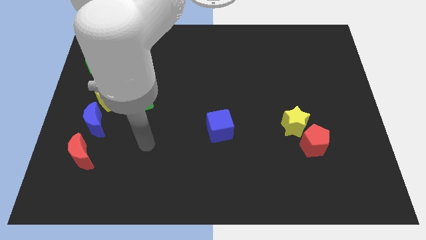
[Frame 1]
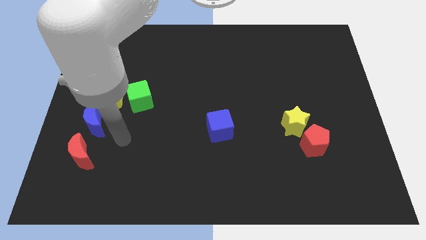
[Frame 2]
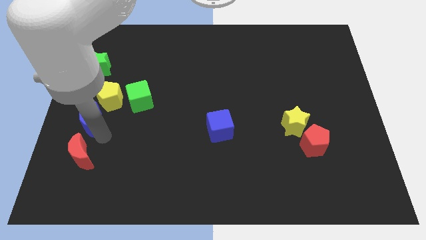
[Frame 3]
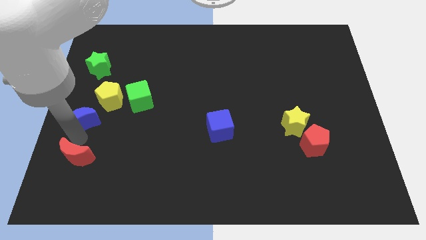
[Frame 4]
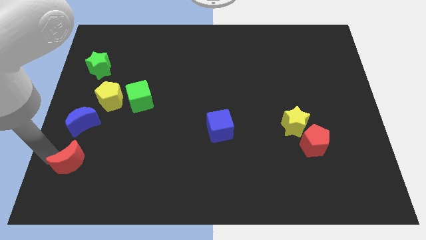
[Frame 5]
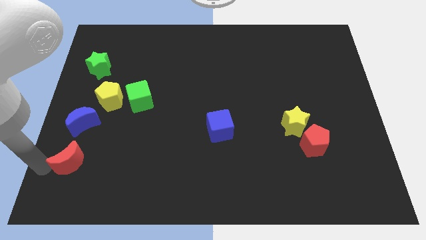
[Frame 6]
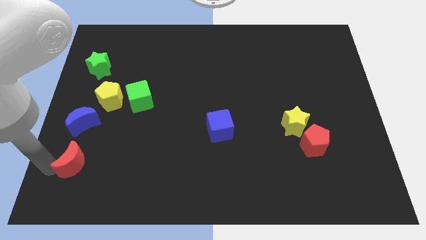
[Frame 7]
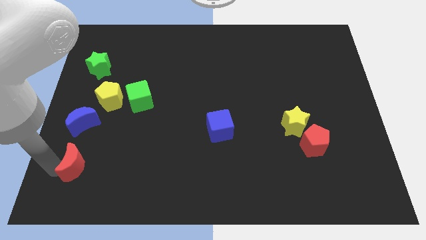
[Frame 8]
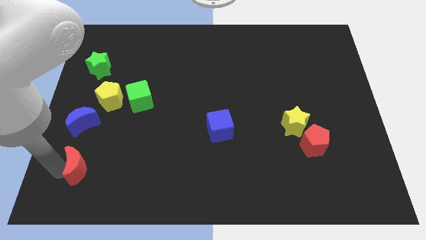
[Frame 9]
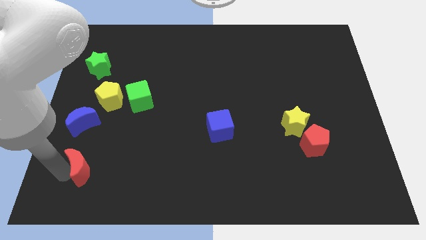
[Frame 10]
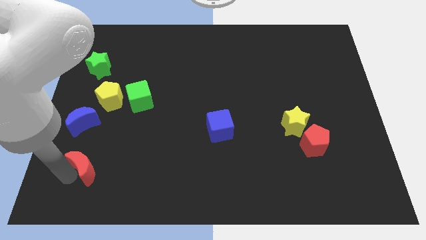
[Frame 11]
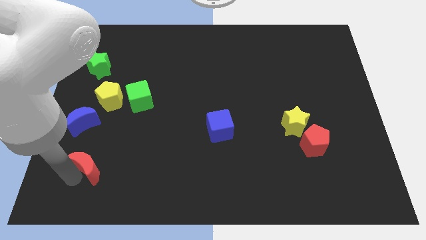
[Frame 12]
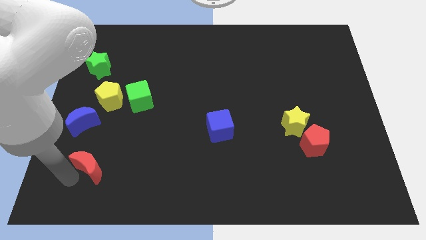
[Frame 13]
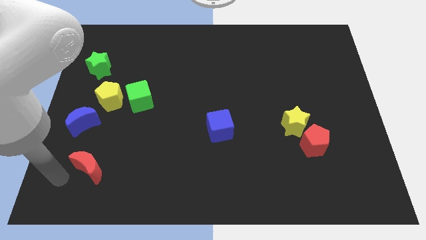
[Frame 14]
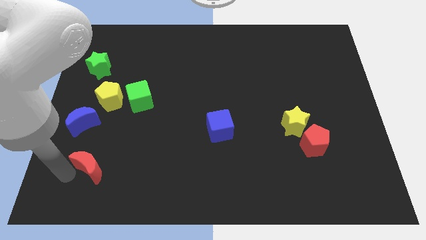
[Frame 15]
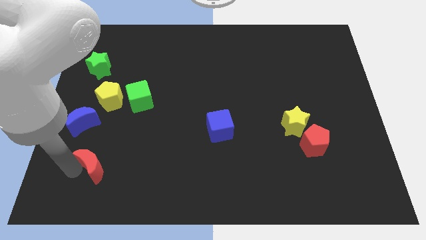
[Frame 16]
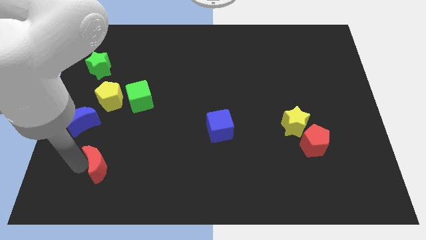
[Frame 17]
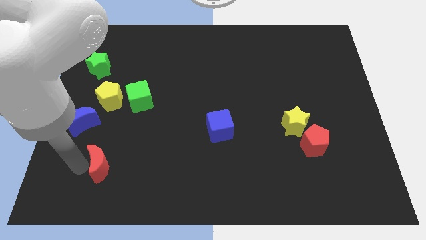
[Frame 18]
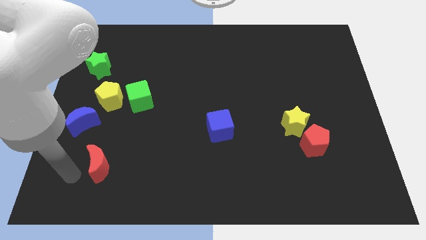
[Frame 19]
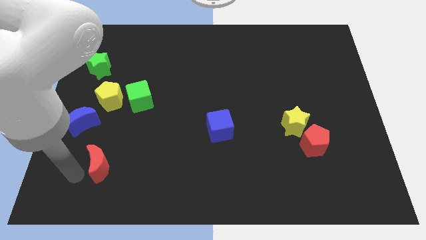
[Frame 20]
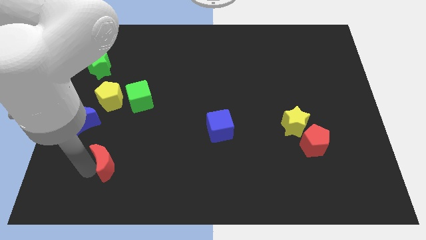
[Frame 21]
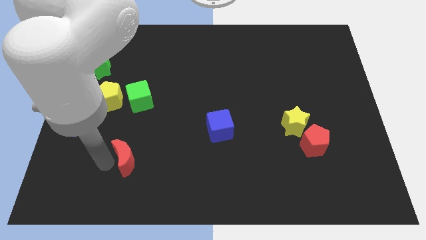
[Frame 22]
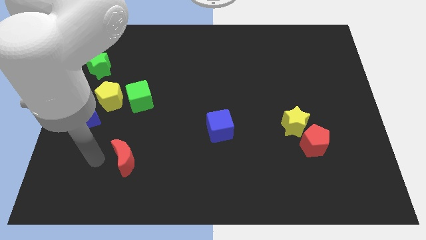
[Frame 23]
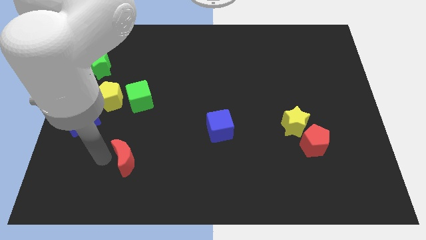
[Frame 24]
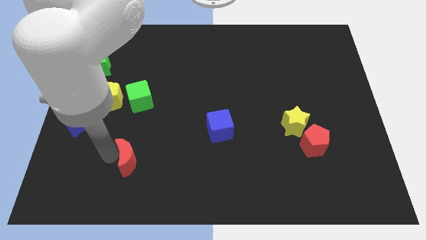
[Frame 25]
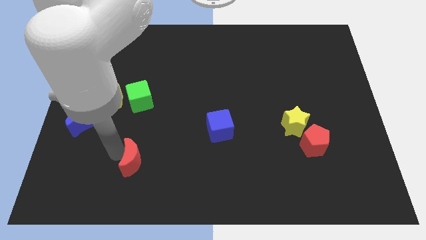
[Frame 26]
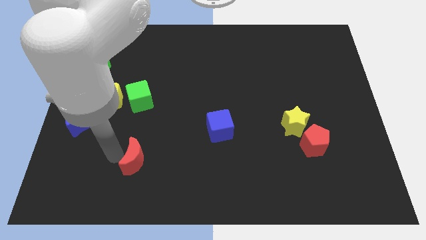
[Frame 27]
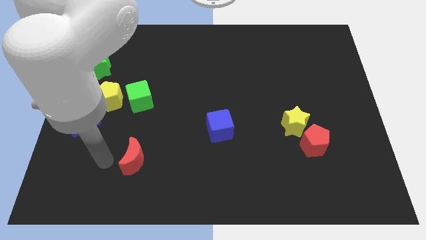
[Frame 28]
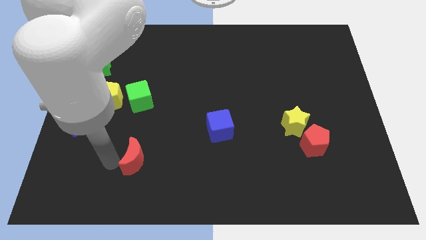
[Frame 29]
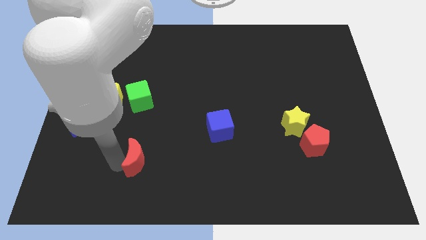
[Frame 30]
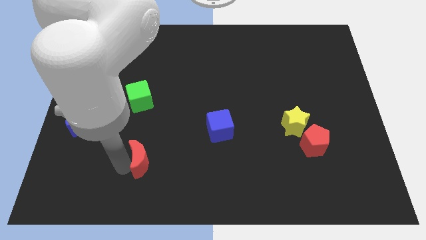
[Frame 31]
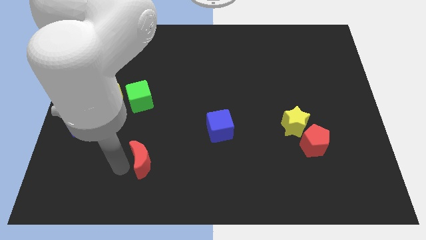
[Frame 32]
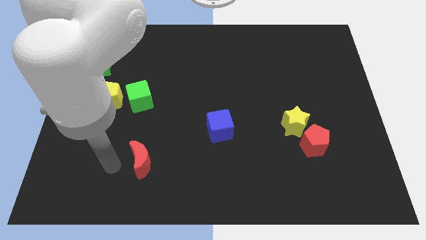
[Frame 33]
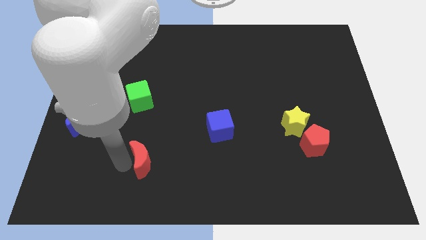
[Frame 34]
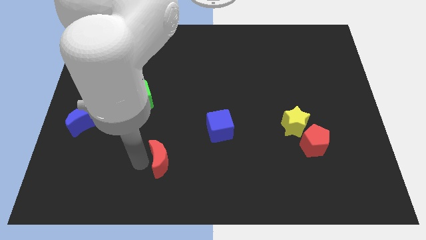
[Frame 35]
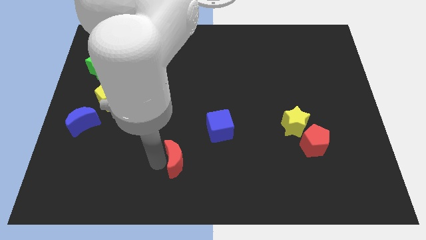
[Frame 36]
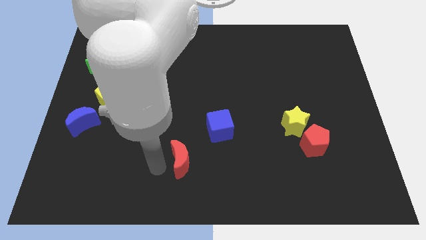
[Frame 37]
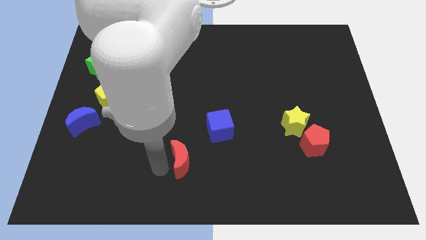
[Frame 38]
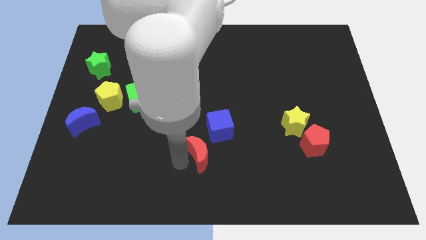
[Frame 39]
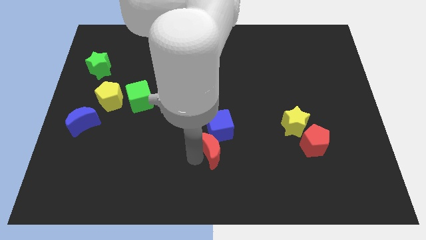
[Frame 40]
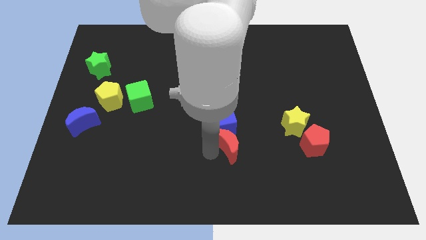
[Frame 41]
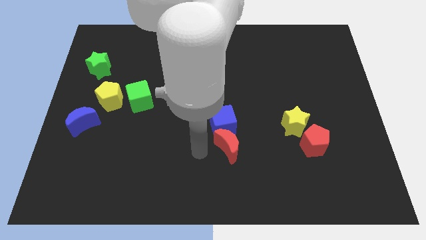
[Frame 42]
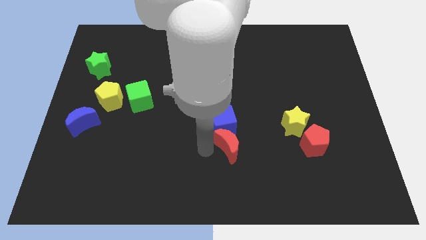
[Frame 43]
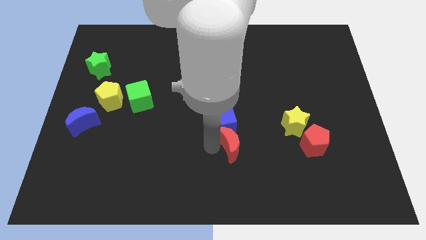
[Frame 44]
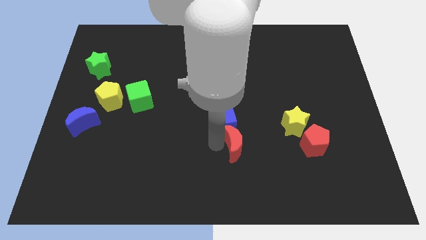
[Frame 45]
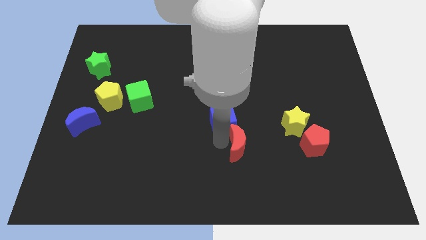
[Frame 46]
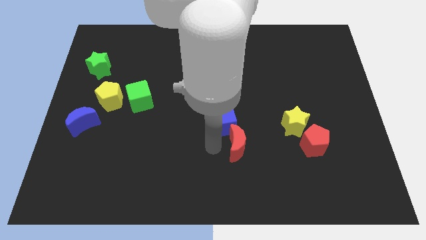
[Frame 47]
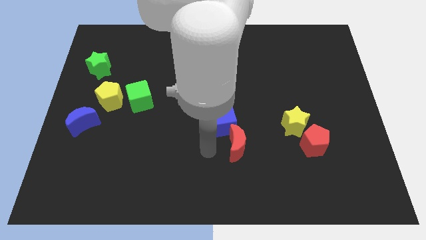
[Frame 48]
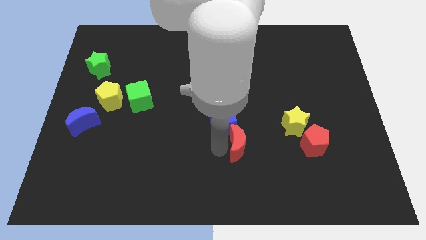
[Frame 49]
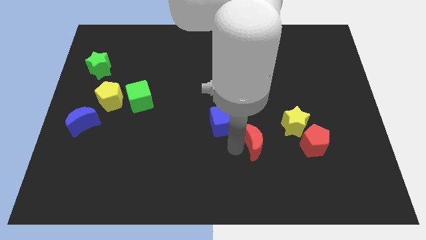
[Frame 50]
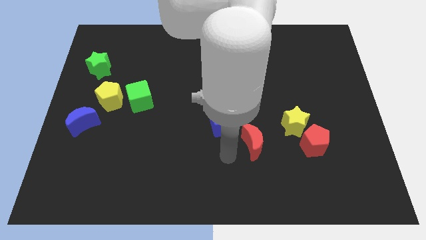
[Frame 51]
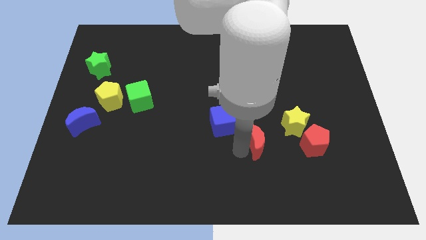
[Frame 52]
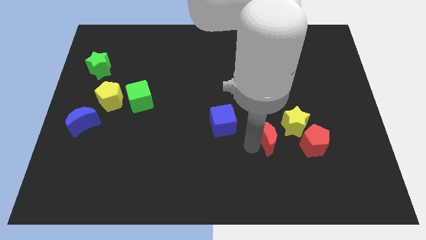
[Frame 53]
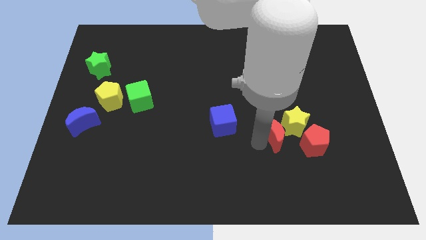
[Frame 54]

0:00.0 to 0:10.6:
push the red moon next to the yellow star

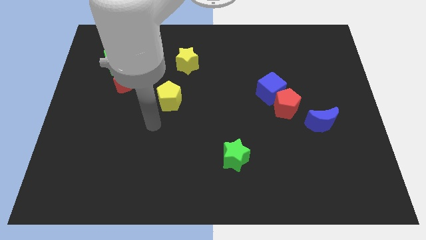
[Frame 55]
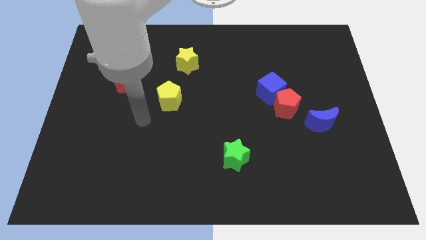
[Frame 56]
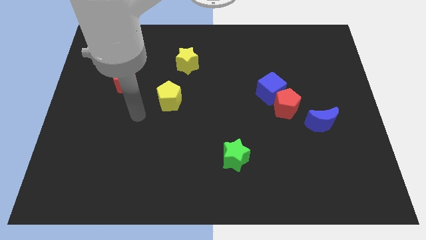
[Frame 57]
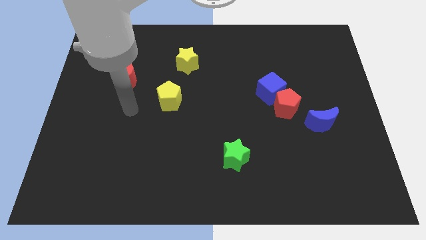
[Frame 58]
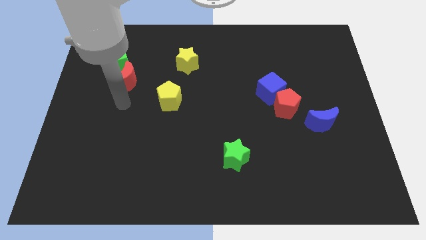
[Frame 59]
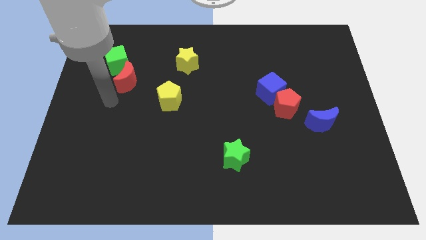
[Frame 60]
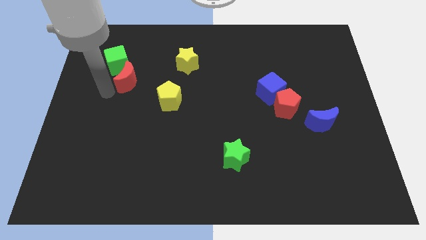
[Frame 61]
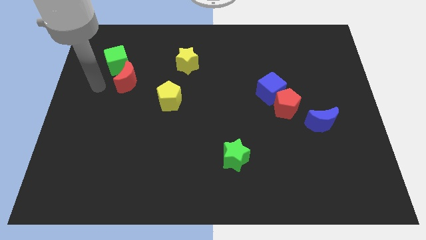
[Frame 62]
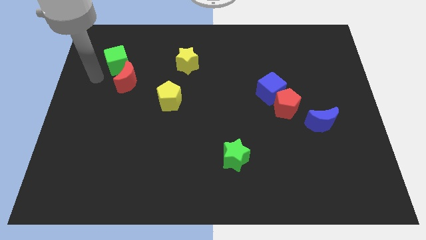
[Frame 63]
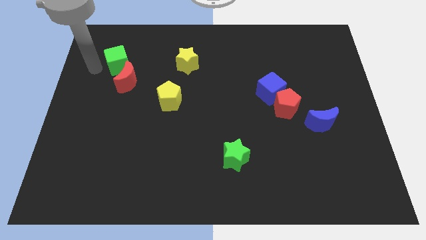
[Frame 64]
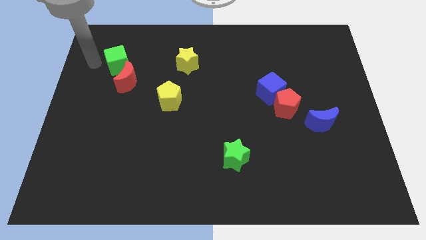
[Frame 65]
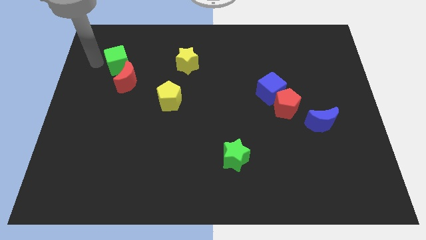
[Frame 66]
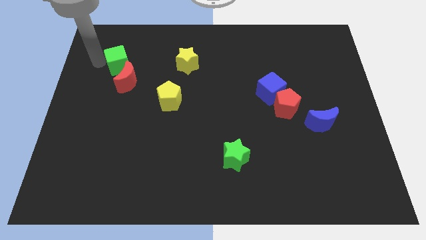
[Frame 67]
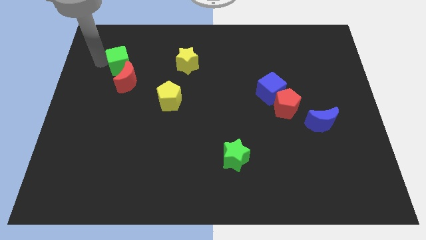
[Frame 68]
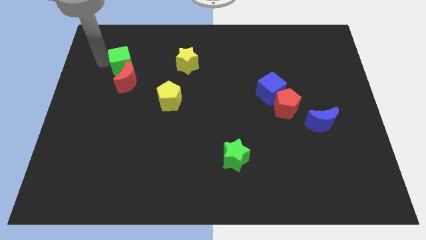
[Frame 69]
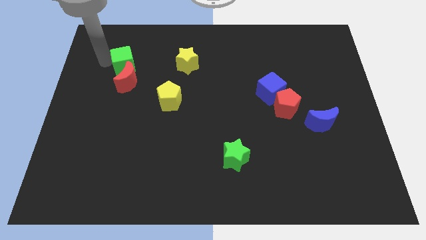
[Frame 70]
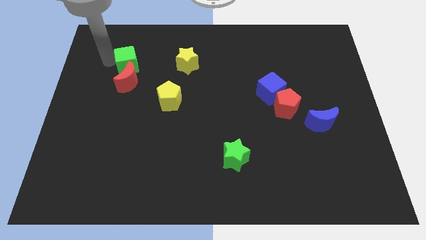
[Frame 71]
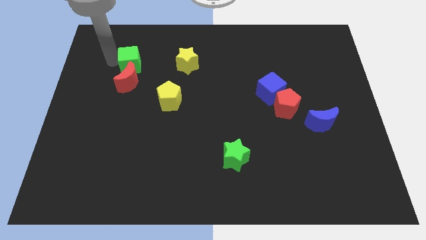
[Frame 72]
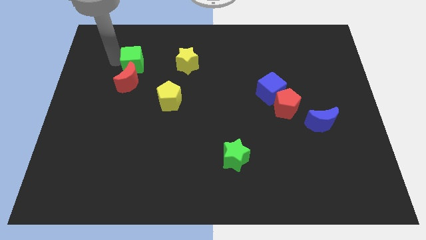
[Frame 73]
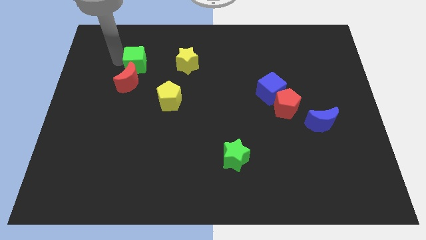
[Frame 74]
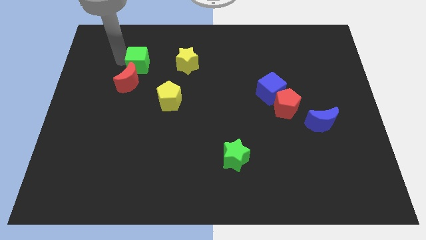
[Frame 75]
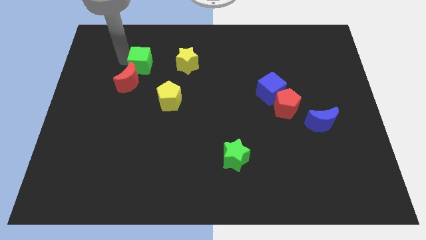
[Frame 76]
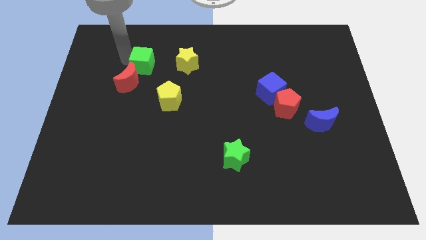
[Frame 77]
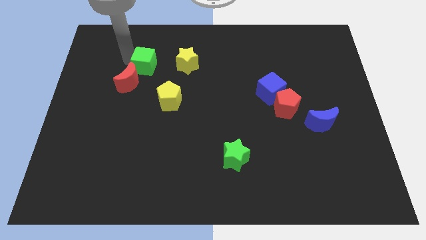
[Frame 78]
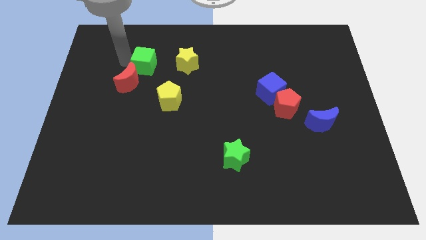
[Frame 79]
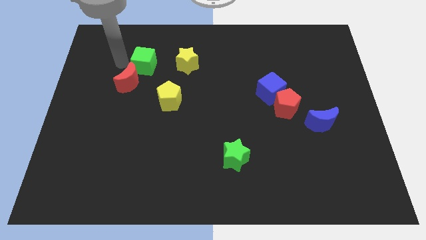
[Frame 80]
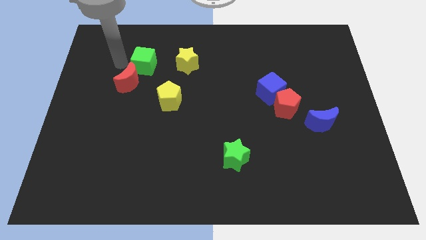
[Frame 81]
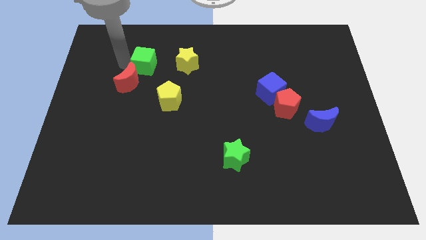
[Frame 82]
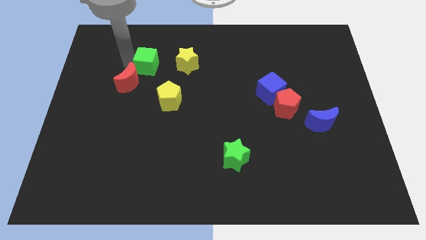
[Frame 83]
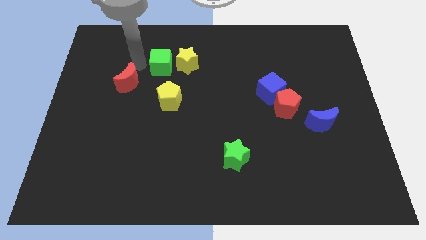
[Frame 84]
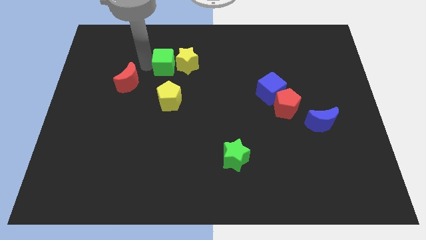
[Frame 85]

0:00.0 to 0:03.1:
put the green cube next to the yellow star
